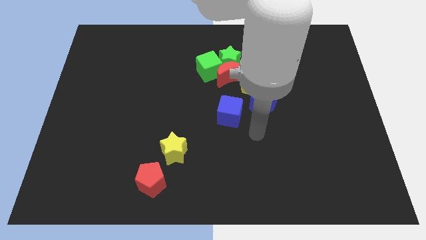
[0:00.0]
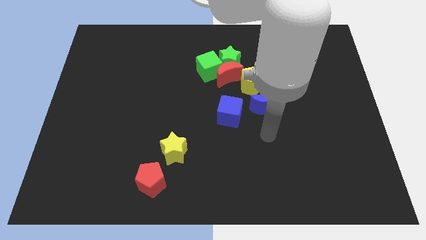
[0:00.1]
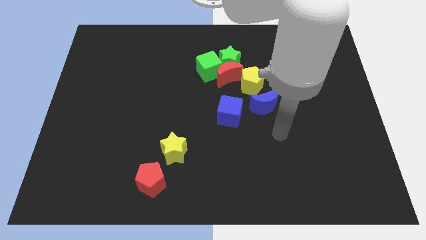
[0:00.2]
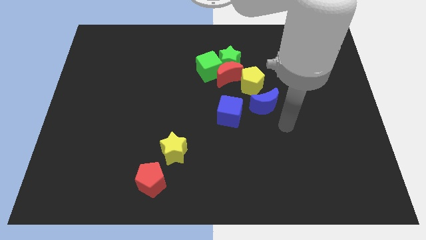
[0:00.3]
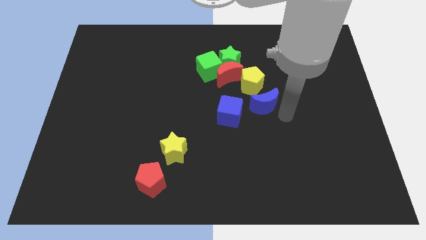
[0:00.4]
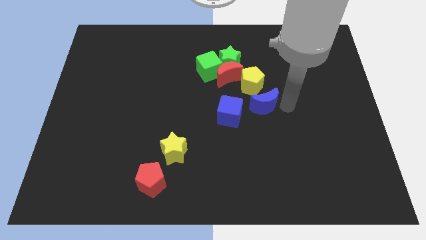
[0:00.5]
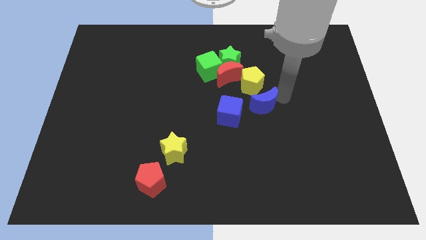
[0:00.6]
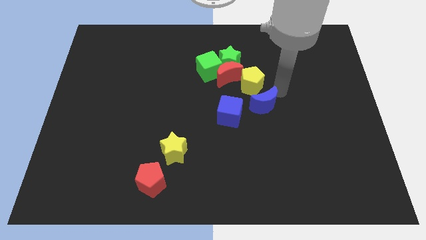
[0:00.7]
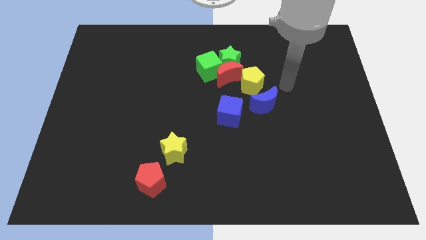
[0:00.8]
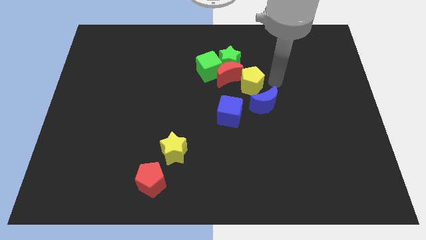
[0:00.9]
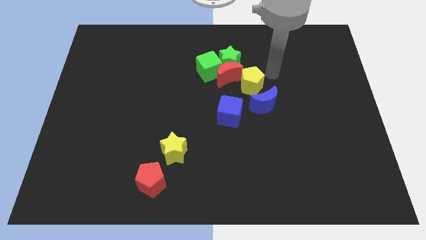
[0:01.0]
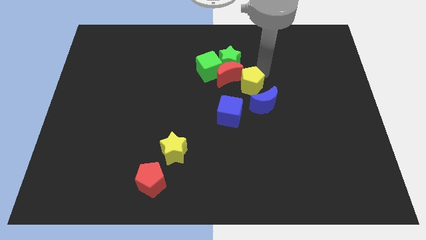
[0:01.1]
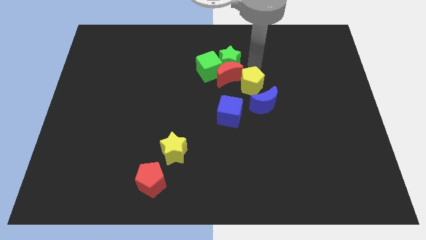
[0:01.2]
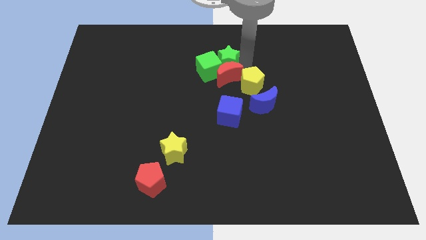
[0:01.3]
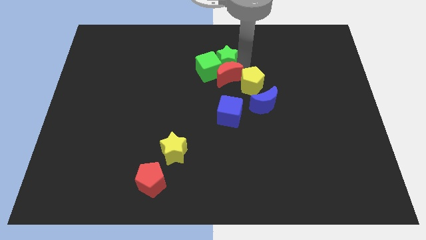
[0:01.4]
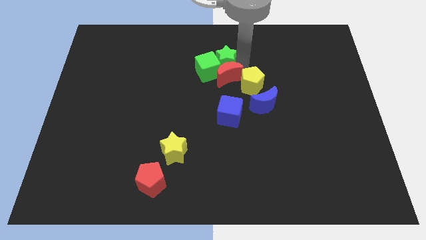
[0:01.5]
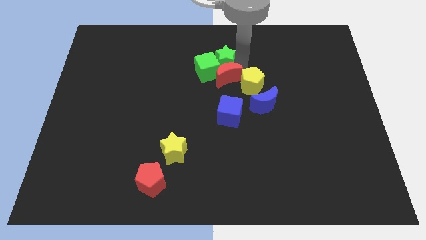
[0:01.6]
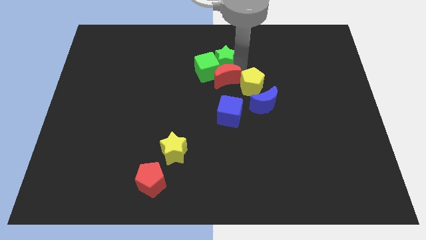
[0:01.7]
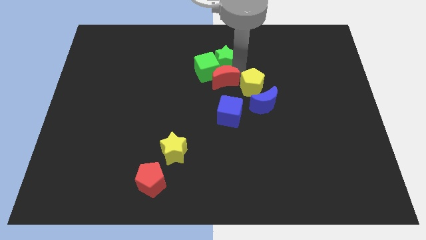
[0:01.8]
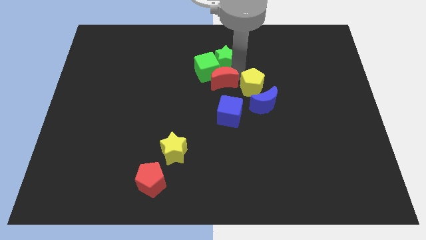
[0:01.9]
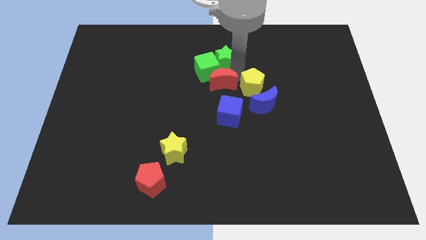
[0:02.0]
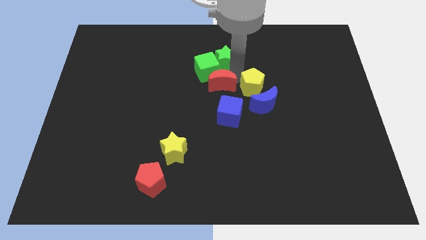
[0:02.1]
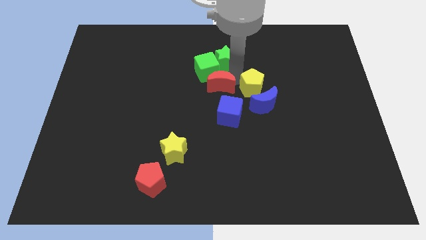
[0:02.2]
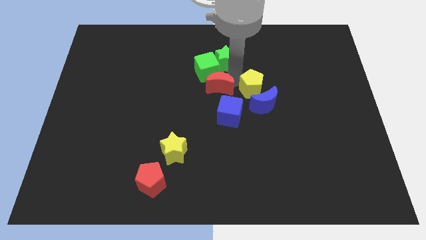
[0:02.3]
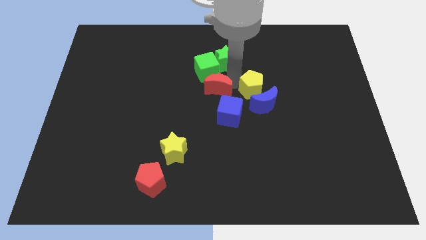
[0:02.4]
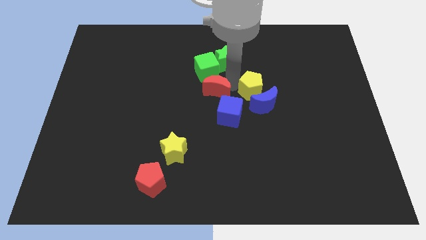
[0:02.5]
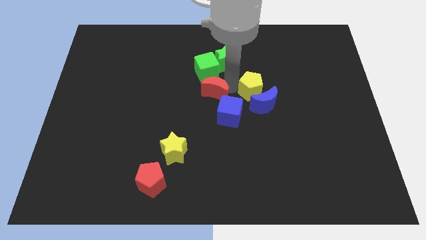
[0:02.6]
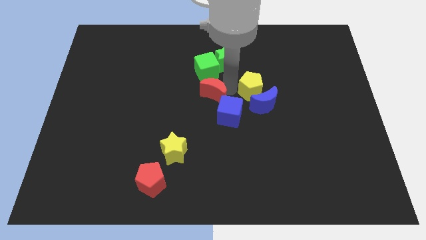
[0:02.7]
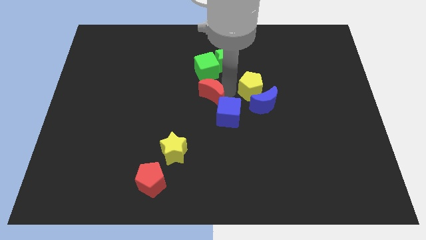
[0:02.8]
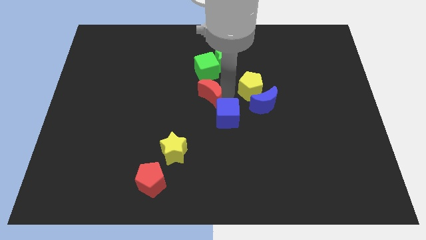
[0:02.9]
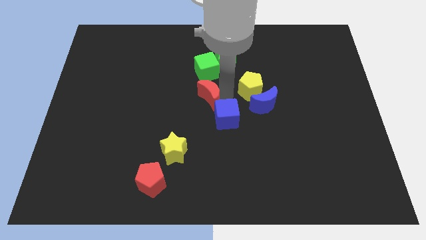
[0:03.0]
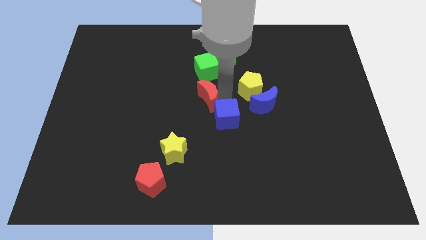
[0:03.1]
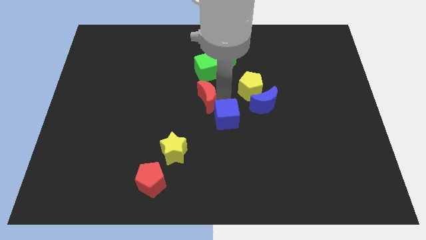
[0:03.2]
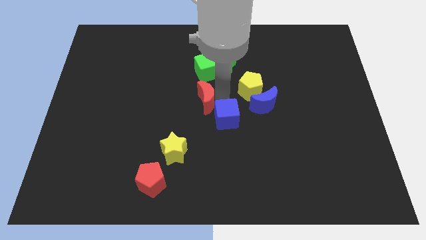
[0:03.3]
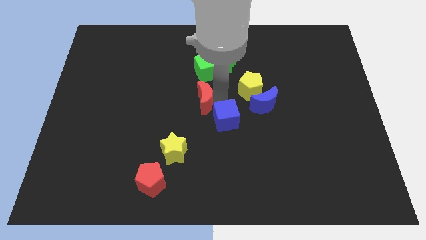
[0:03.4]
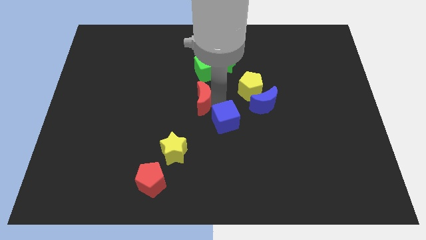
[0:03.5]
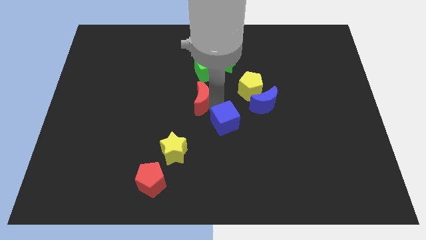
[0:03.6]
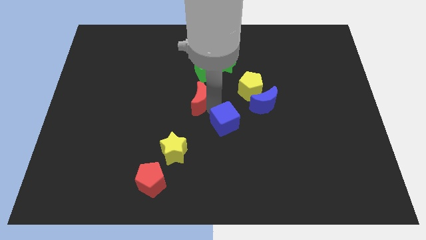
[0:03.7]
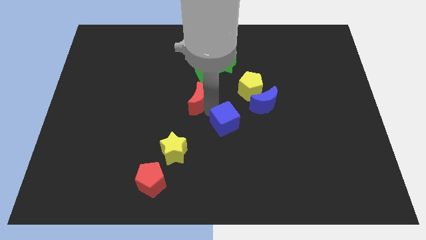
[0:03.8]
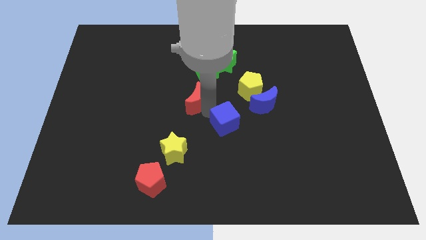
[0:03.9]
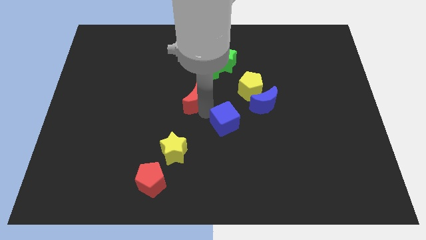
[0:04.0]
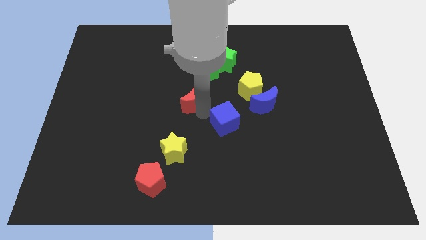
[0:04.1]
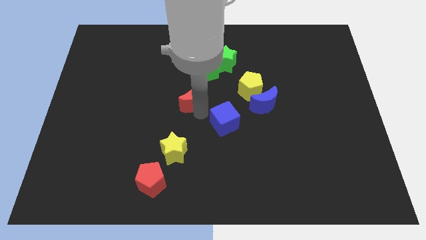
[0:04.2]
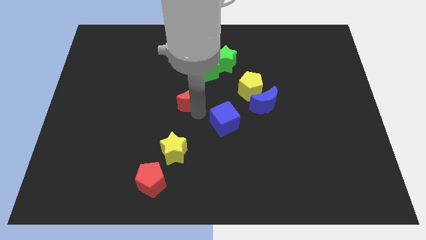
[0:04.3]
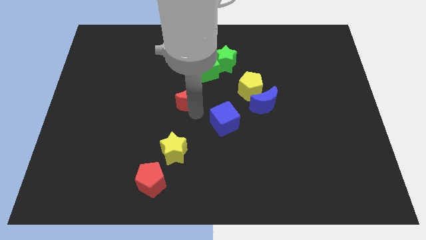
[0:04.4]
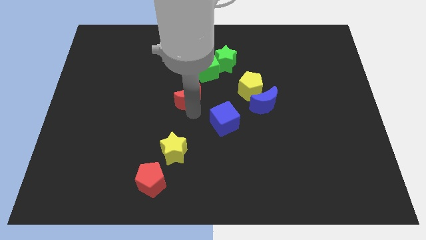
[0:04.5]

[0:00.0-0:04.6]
slide the red moon a little to the left

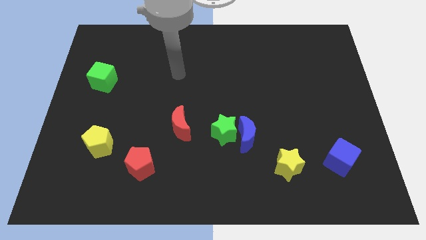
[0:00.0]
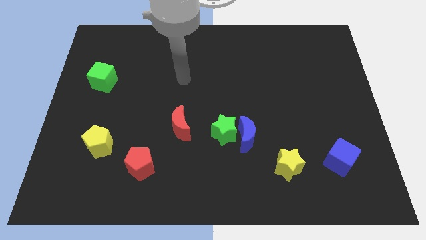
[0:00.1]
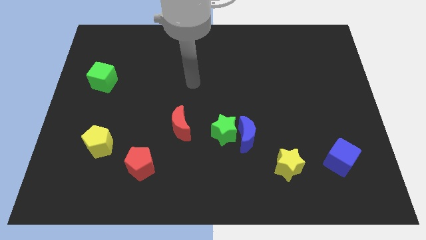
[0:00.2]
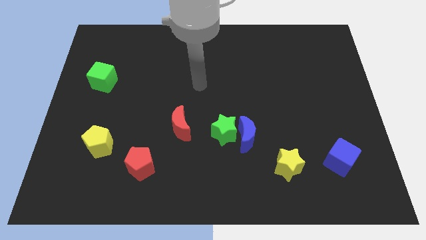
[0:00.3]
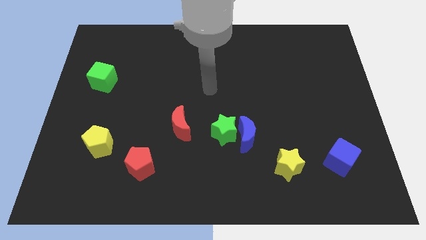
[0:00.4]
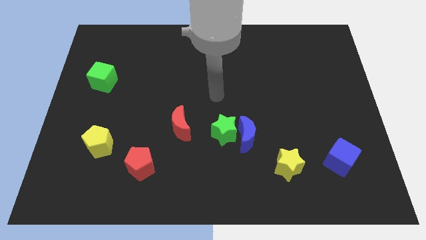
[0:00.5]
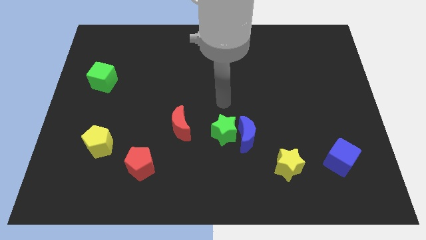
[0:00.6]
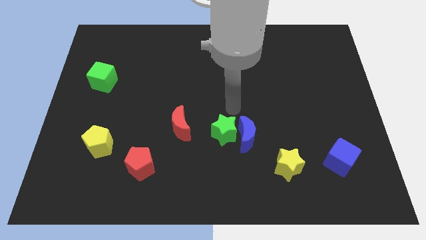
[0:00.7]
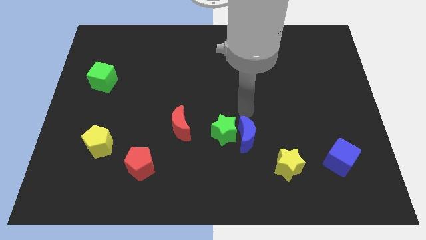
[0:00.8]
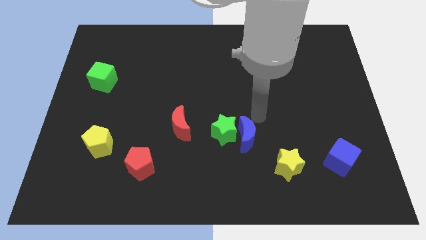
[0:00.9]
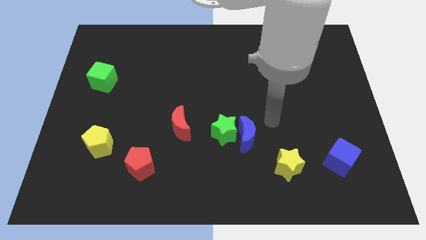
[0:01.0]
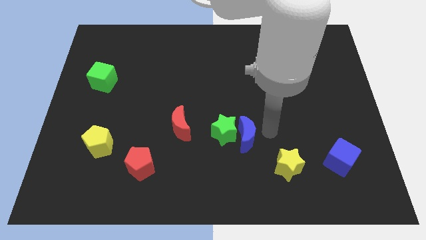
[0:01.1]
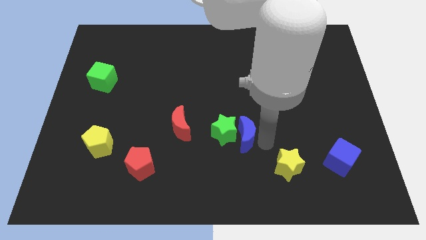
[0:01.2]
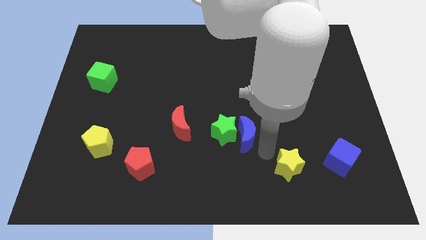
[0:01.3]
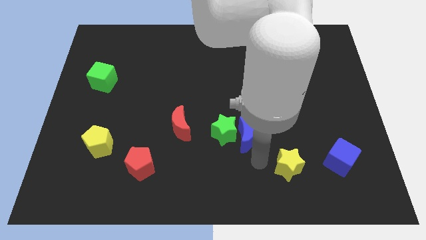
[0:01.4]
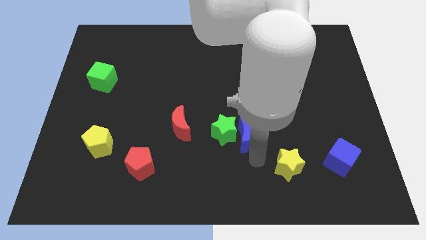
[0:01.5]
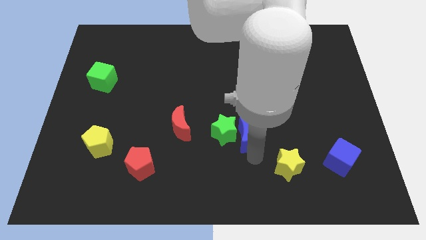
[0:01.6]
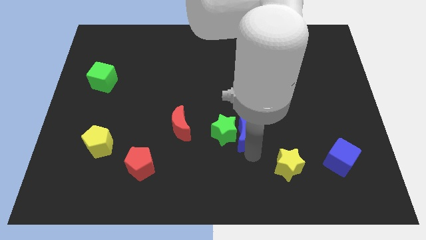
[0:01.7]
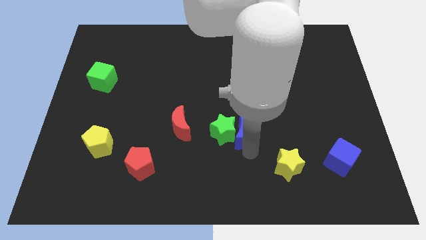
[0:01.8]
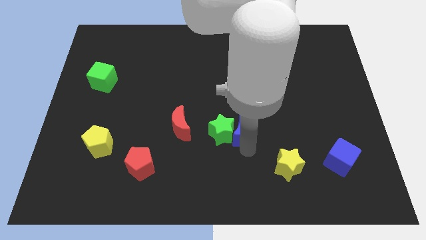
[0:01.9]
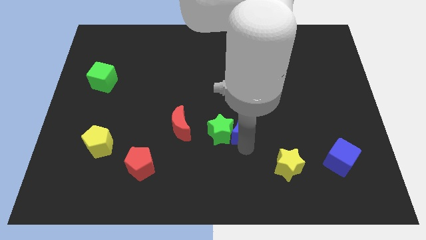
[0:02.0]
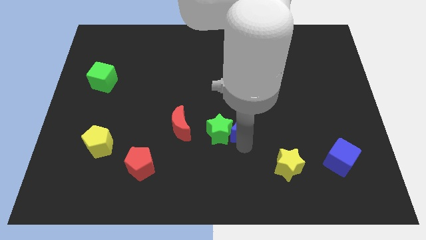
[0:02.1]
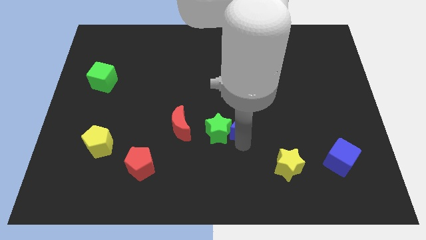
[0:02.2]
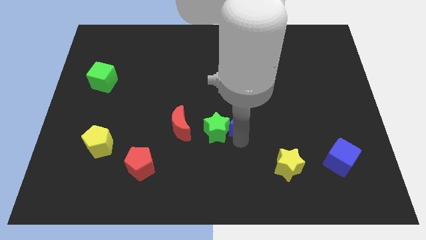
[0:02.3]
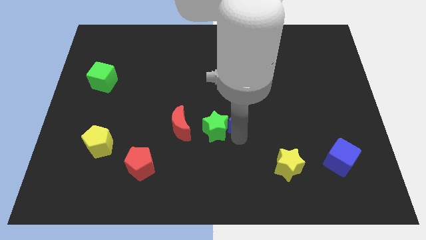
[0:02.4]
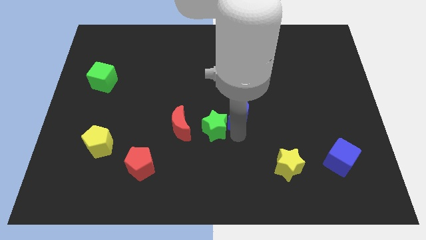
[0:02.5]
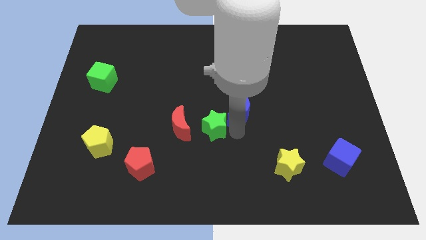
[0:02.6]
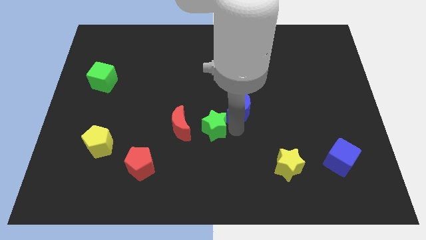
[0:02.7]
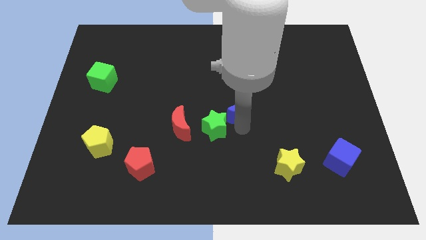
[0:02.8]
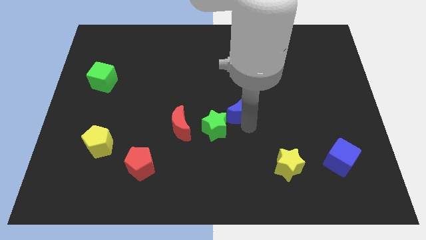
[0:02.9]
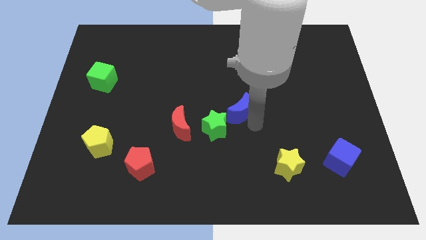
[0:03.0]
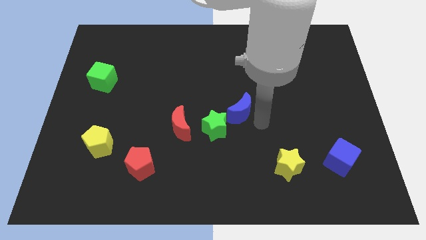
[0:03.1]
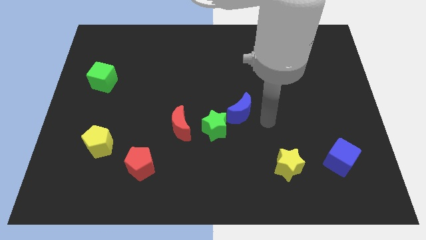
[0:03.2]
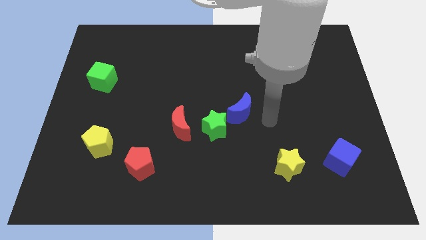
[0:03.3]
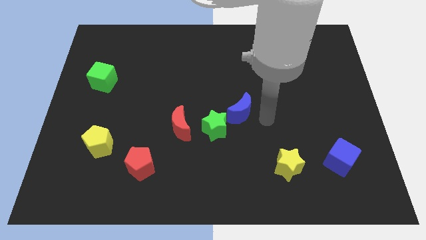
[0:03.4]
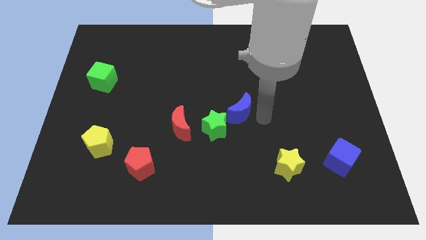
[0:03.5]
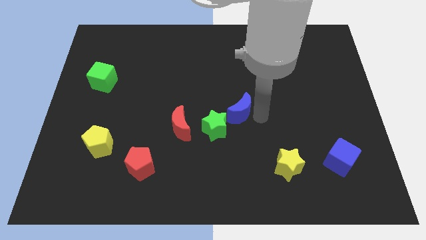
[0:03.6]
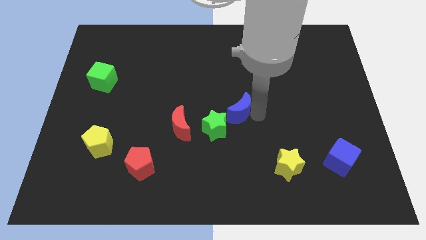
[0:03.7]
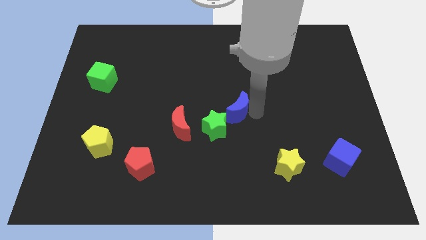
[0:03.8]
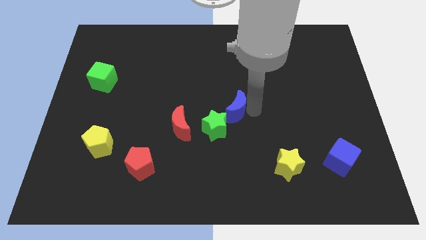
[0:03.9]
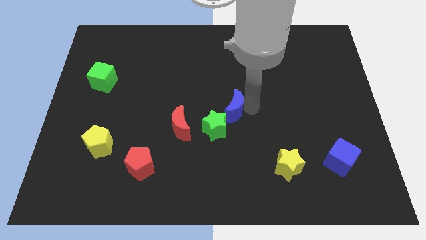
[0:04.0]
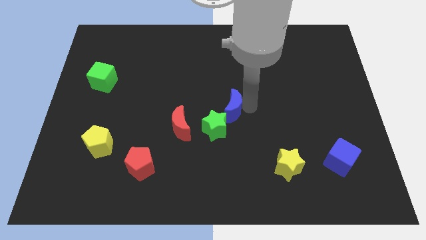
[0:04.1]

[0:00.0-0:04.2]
slightly move the blue moon diagonally upwards and to the left
